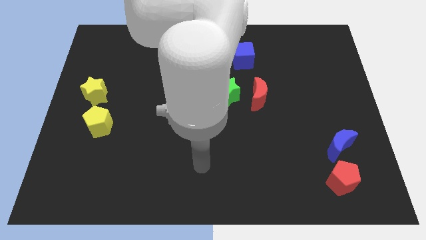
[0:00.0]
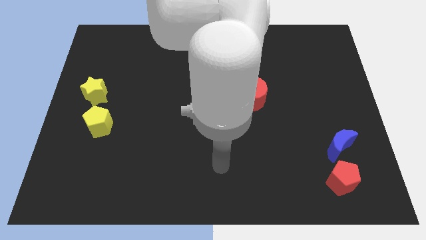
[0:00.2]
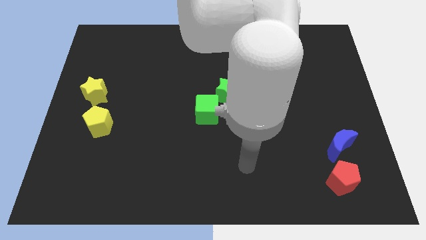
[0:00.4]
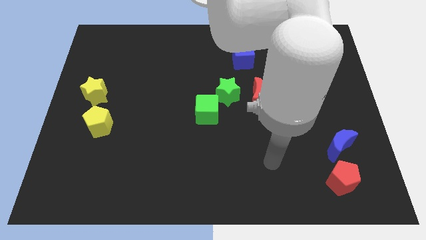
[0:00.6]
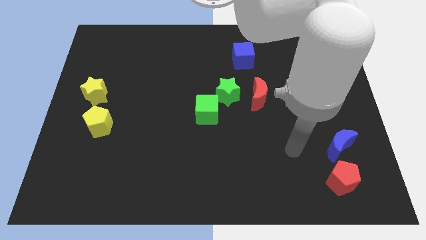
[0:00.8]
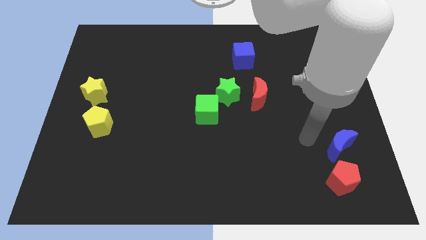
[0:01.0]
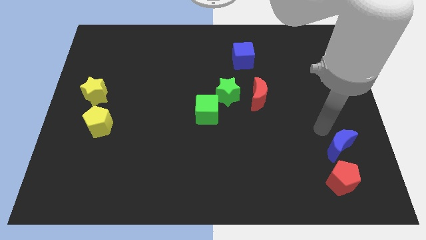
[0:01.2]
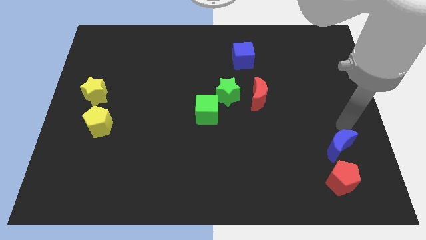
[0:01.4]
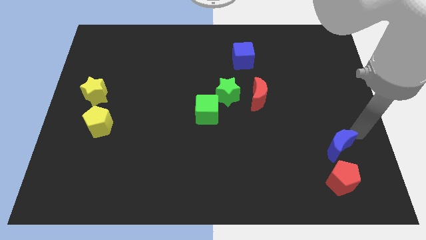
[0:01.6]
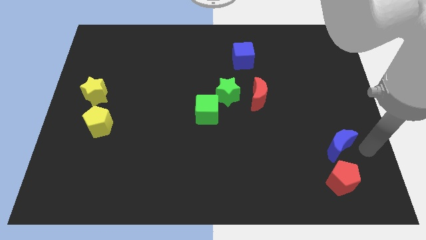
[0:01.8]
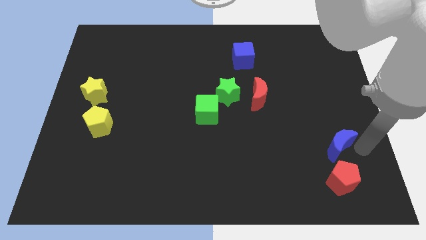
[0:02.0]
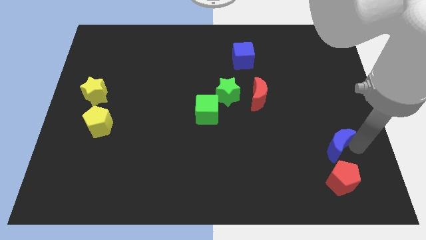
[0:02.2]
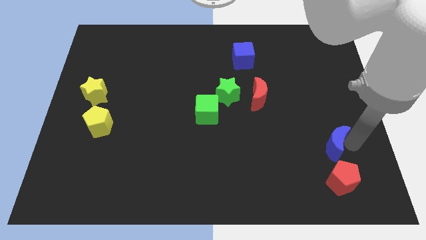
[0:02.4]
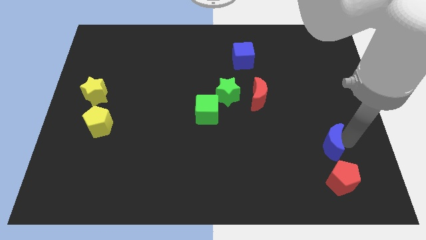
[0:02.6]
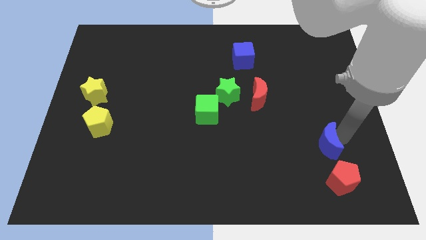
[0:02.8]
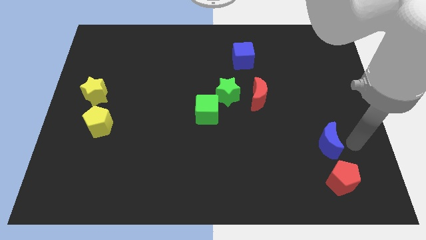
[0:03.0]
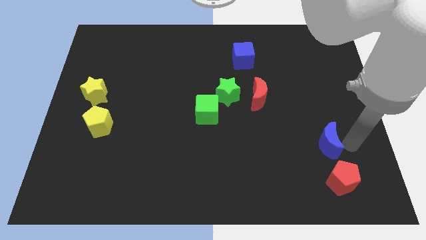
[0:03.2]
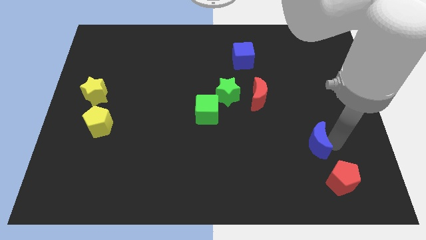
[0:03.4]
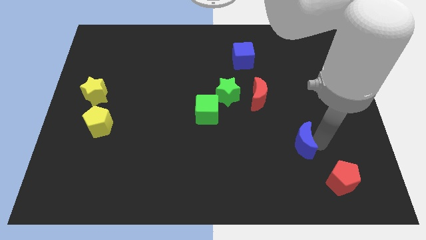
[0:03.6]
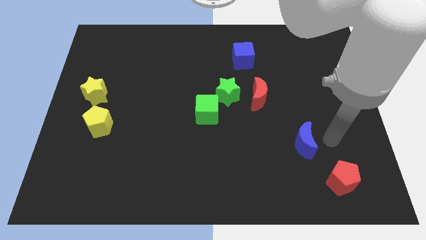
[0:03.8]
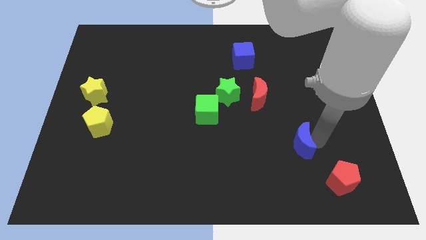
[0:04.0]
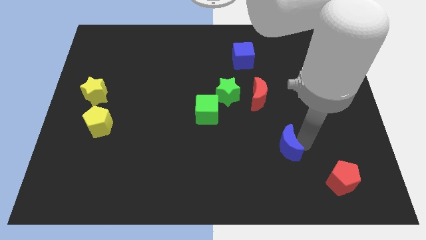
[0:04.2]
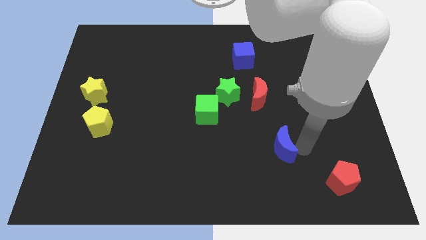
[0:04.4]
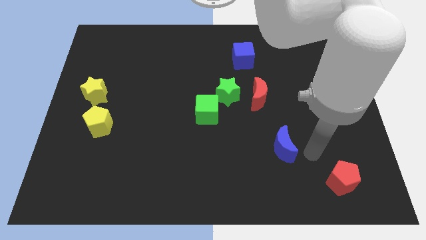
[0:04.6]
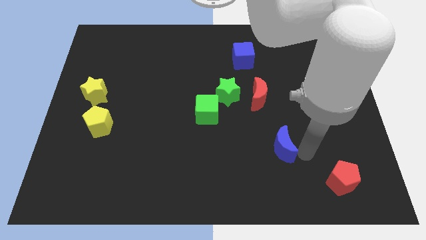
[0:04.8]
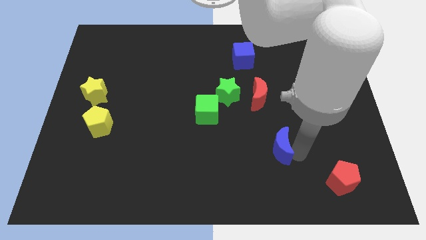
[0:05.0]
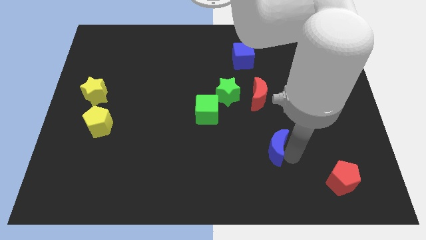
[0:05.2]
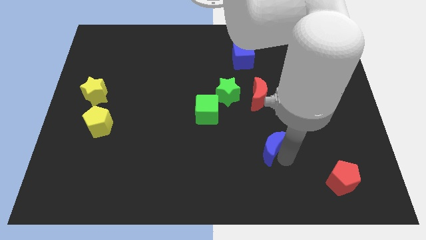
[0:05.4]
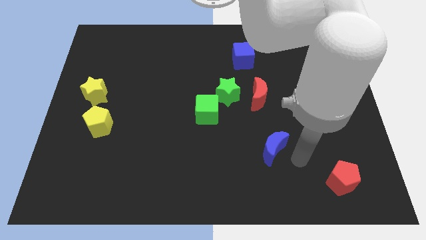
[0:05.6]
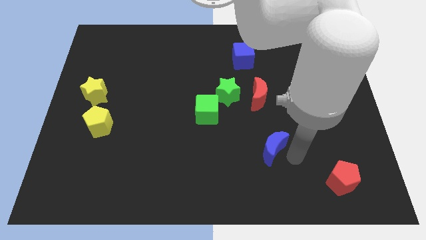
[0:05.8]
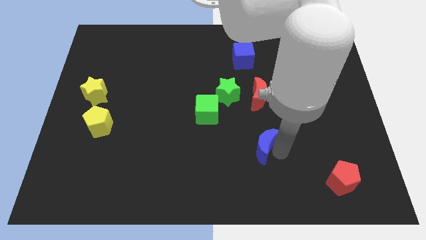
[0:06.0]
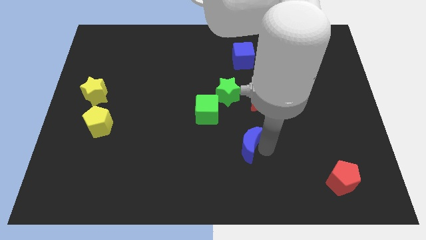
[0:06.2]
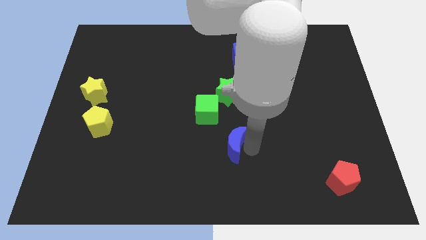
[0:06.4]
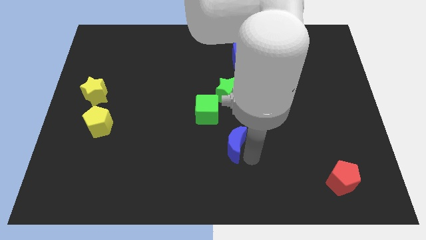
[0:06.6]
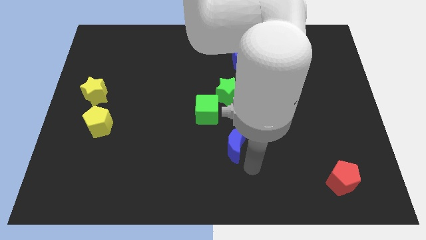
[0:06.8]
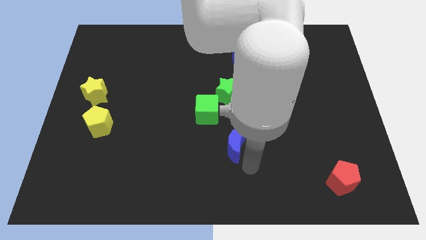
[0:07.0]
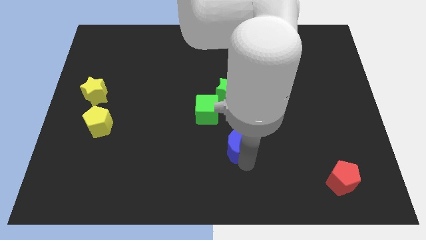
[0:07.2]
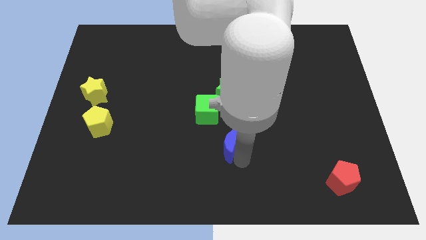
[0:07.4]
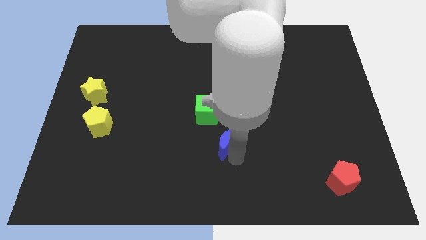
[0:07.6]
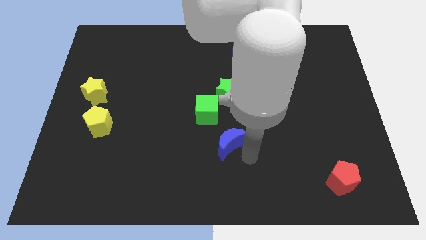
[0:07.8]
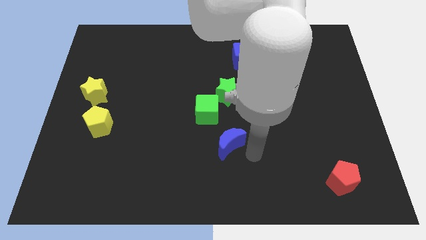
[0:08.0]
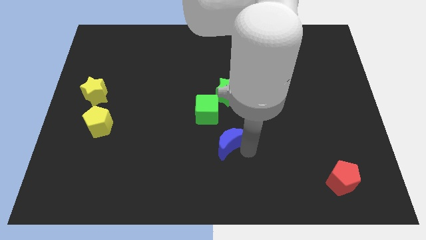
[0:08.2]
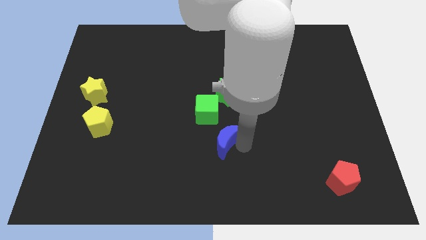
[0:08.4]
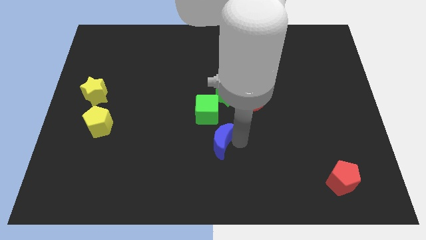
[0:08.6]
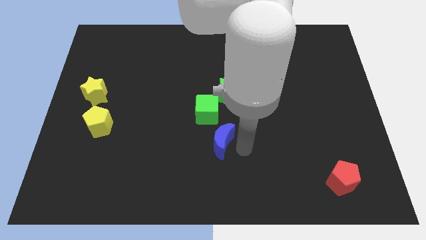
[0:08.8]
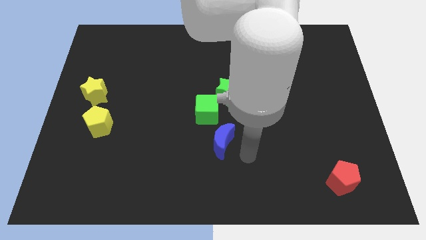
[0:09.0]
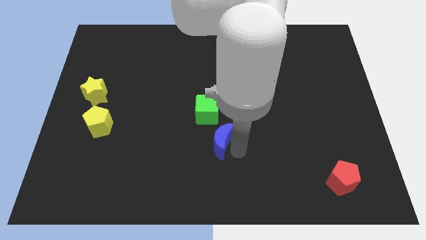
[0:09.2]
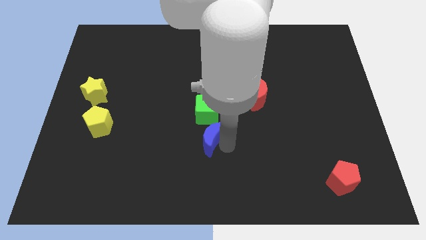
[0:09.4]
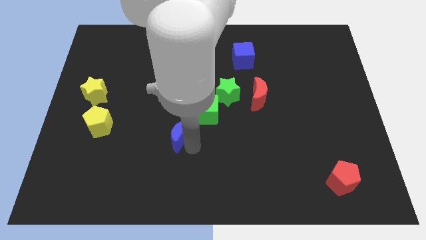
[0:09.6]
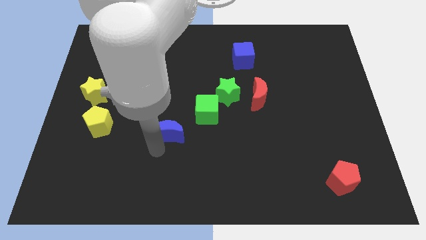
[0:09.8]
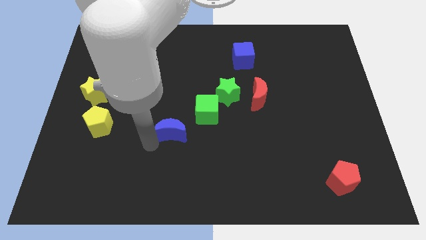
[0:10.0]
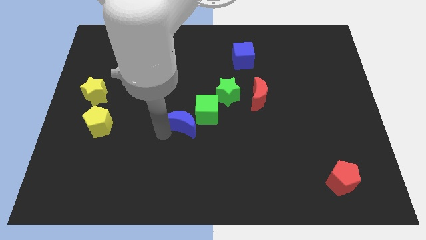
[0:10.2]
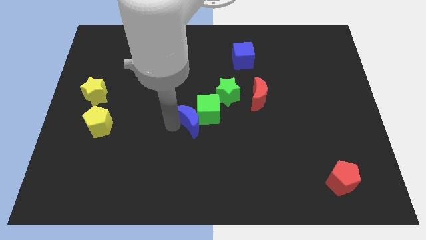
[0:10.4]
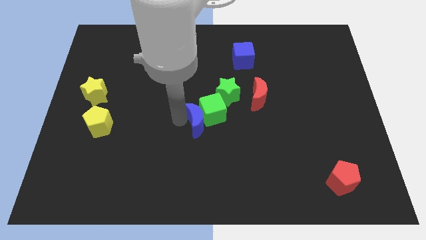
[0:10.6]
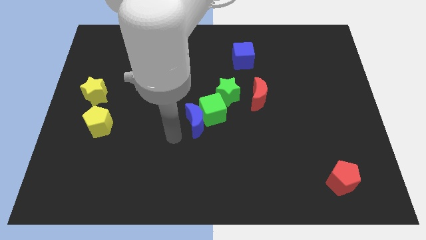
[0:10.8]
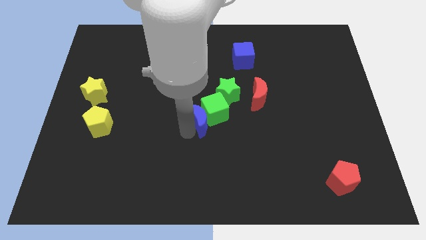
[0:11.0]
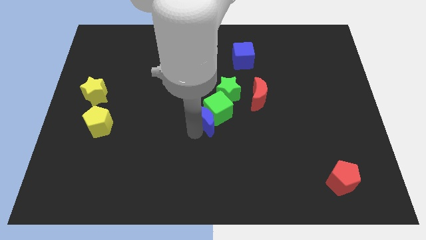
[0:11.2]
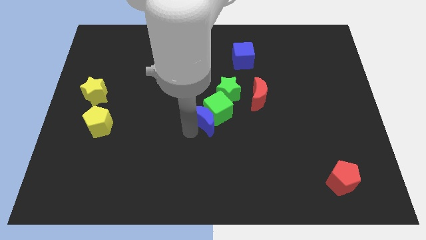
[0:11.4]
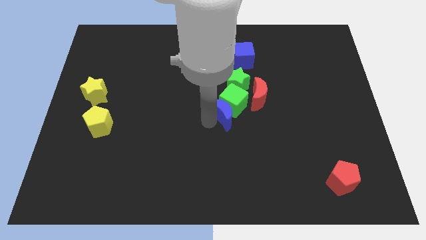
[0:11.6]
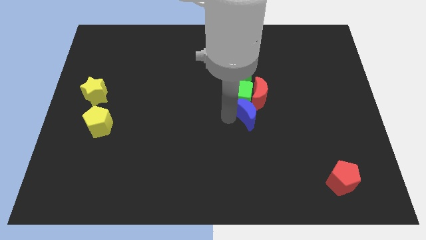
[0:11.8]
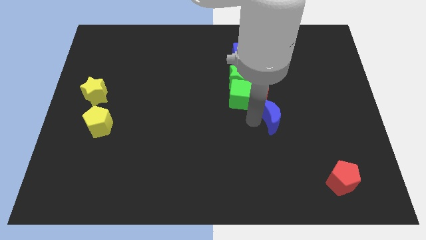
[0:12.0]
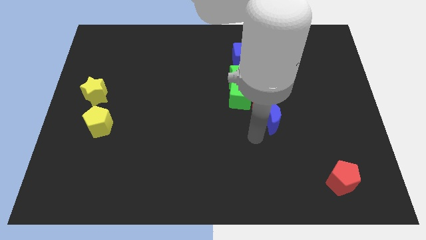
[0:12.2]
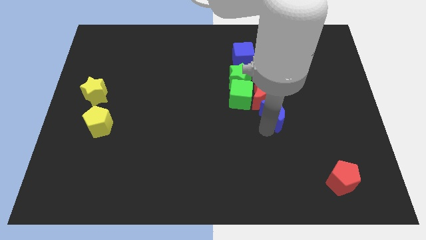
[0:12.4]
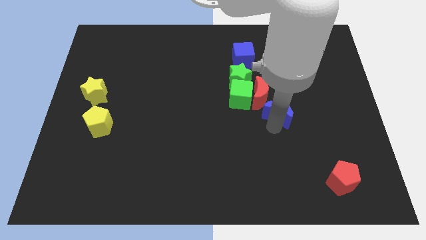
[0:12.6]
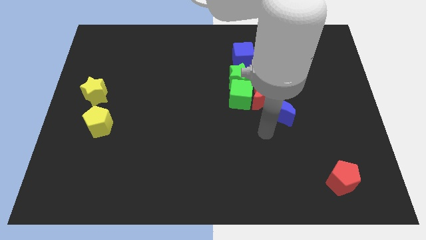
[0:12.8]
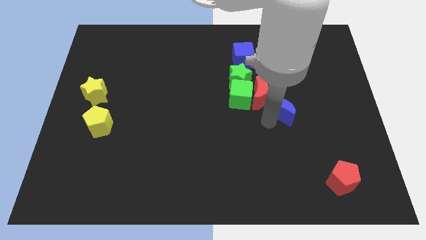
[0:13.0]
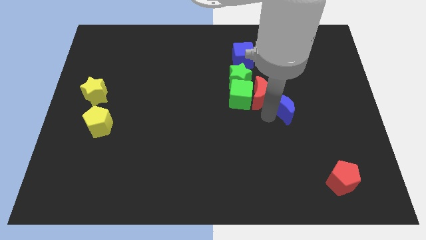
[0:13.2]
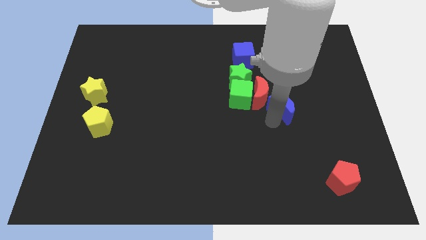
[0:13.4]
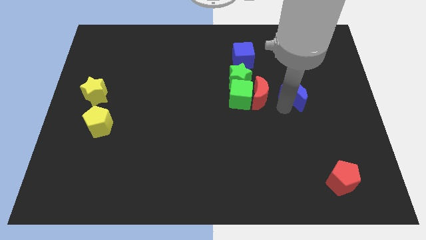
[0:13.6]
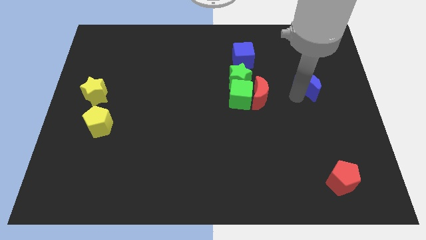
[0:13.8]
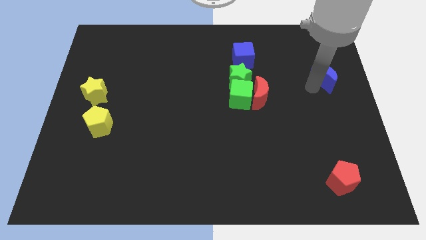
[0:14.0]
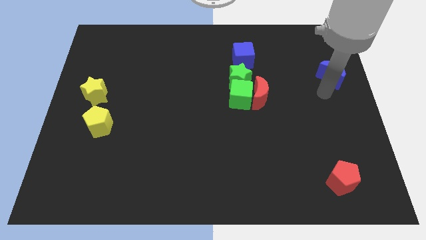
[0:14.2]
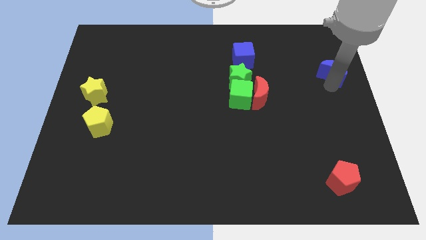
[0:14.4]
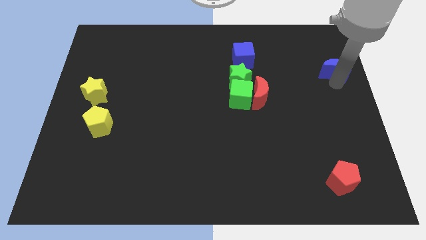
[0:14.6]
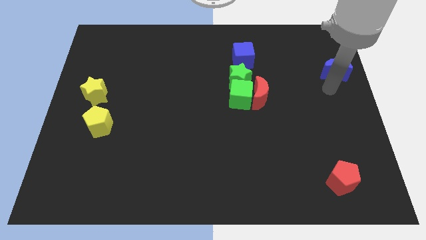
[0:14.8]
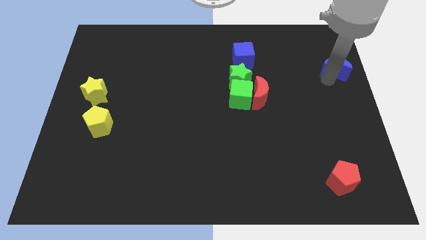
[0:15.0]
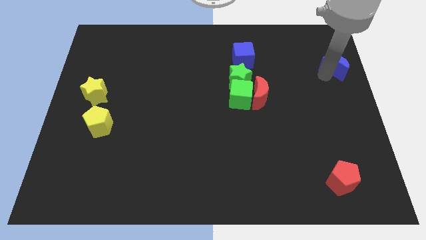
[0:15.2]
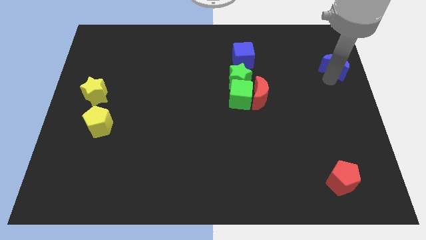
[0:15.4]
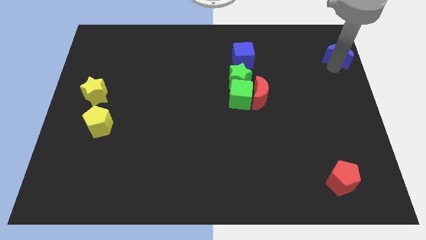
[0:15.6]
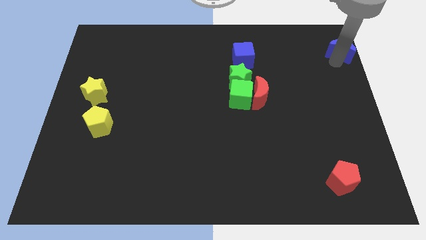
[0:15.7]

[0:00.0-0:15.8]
push the blue moon to the top right of the board
